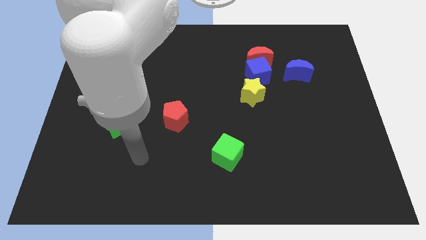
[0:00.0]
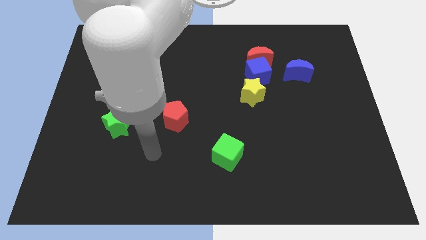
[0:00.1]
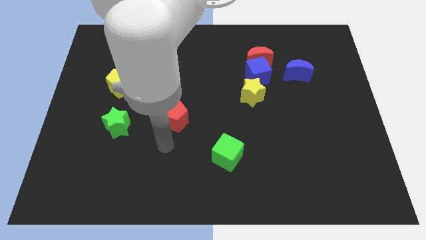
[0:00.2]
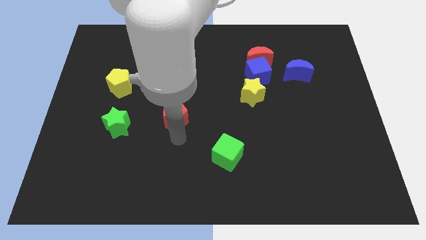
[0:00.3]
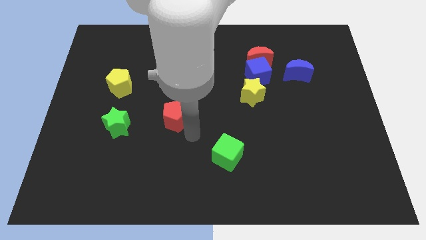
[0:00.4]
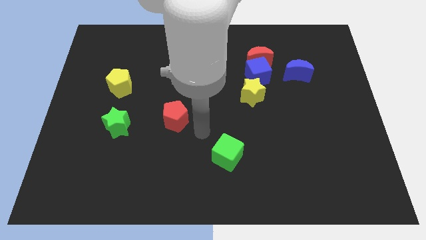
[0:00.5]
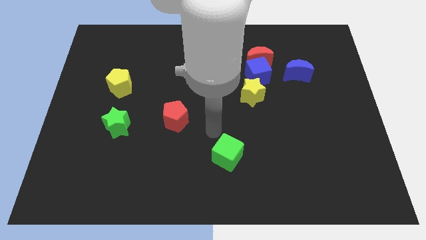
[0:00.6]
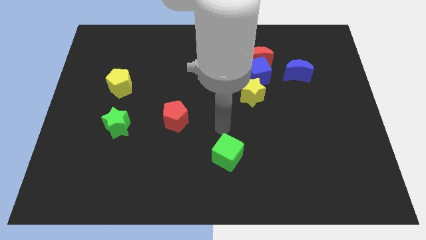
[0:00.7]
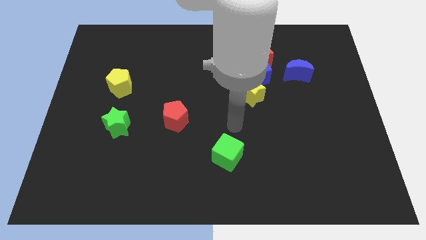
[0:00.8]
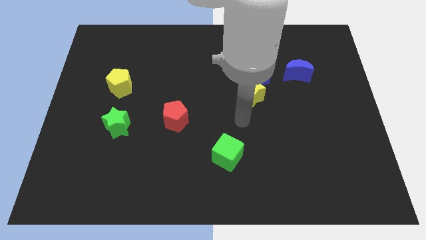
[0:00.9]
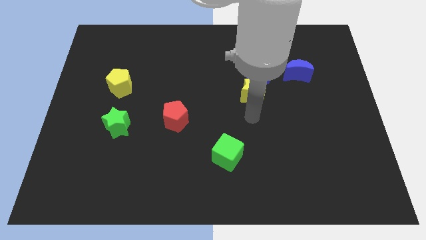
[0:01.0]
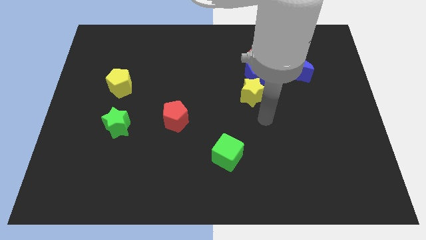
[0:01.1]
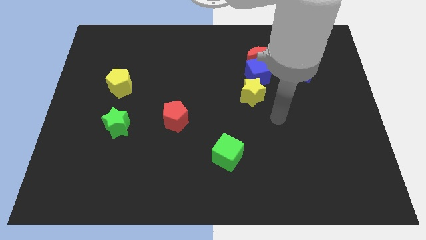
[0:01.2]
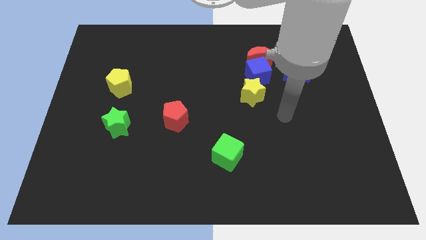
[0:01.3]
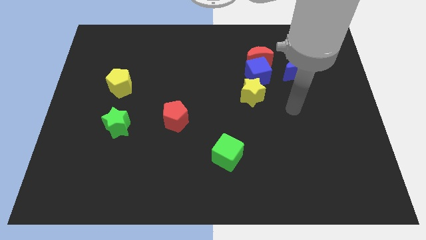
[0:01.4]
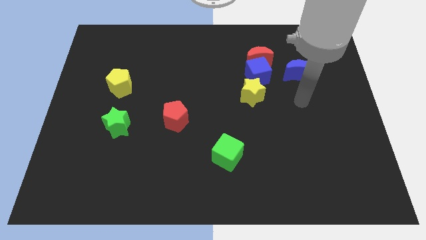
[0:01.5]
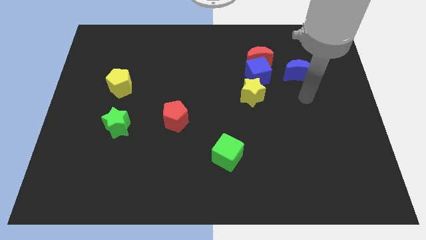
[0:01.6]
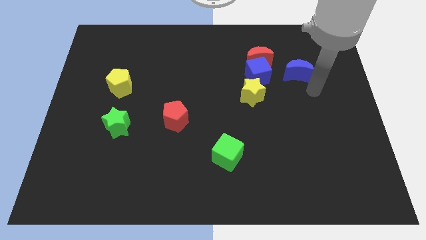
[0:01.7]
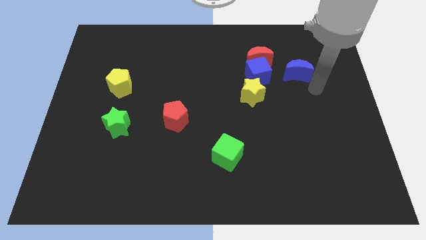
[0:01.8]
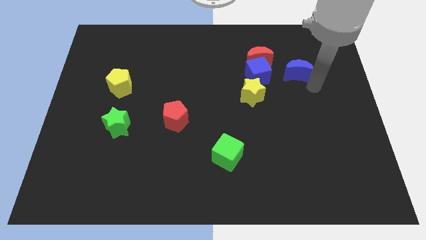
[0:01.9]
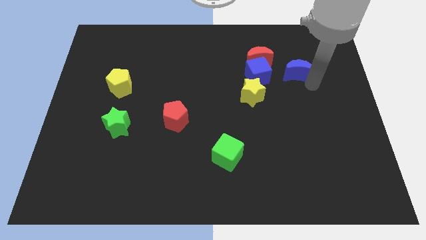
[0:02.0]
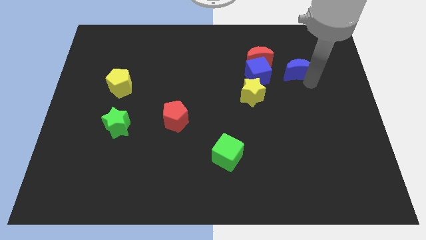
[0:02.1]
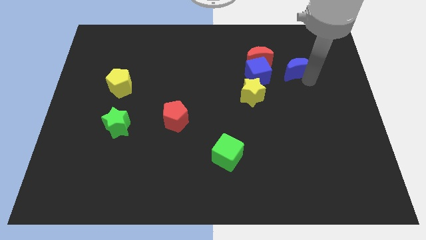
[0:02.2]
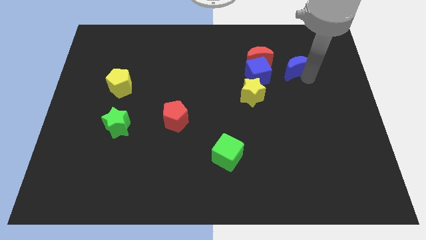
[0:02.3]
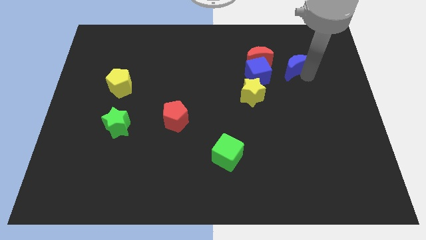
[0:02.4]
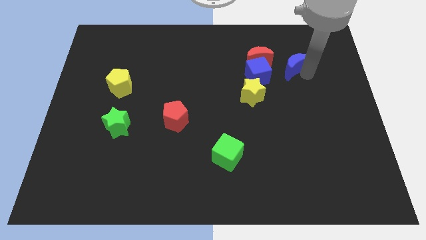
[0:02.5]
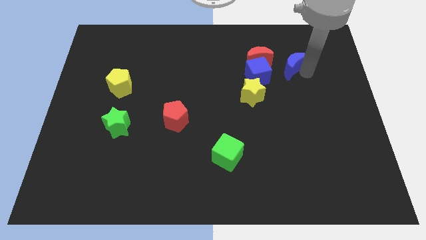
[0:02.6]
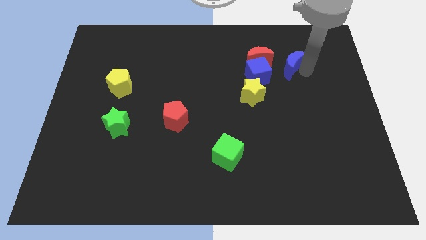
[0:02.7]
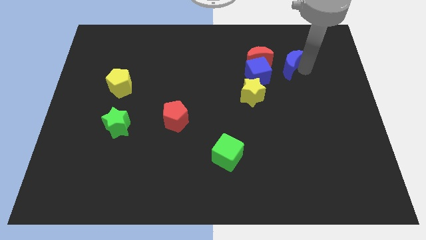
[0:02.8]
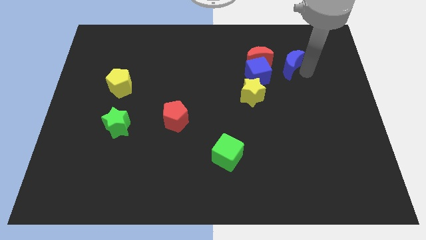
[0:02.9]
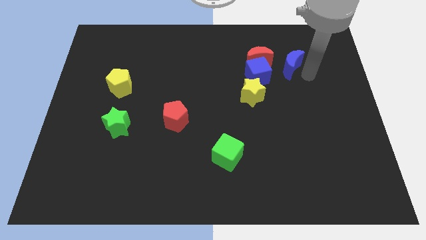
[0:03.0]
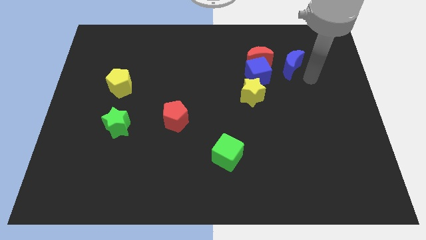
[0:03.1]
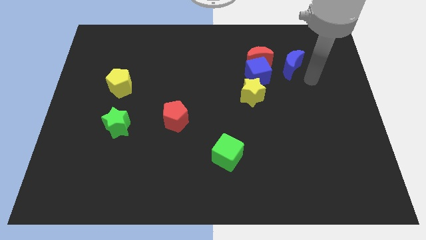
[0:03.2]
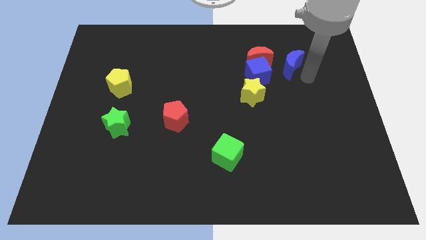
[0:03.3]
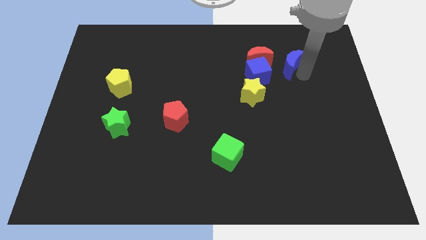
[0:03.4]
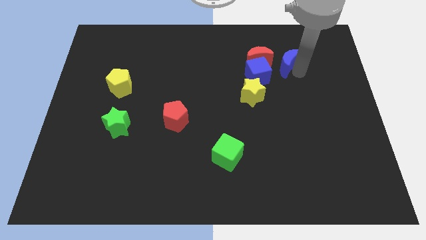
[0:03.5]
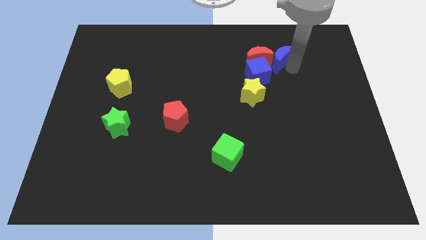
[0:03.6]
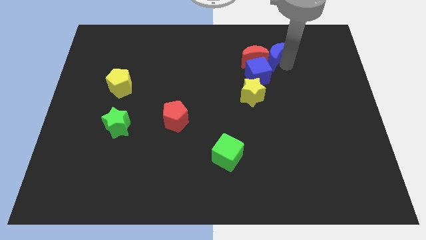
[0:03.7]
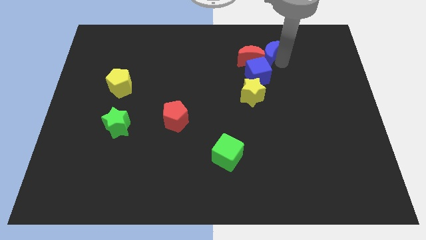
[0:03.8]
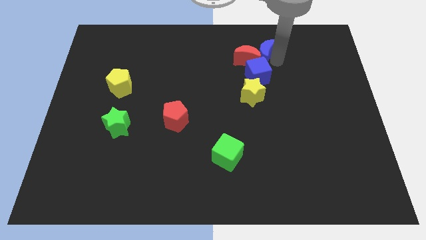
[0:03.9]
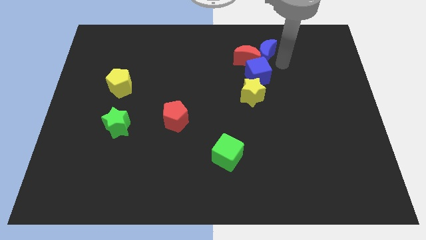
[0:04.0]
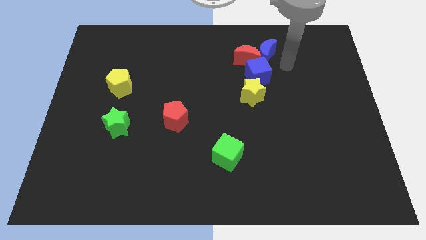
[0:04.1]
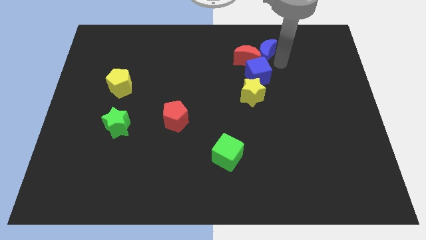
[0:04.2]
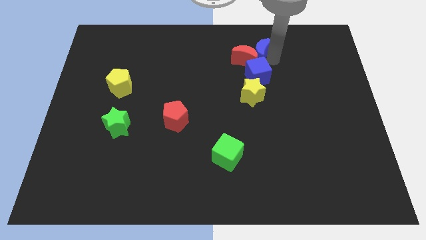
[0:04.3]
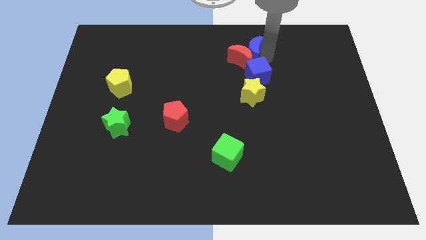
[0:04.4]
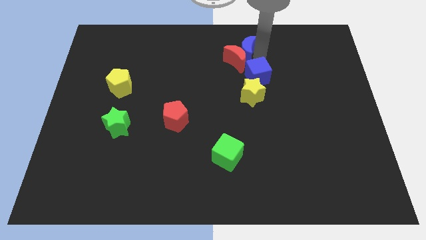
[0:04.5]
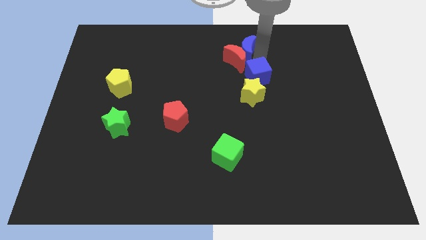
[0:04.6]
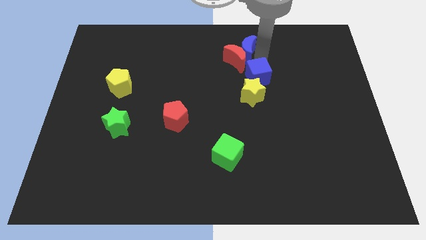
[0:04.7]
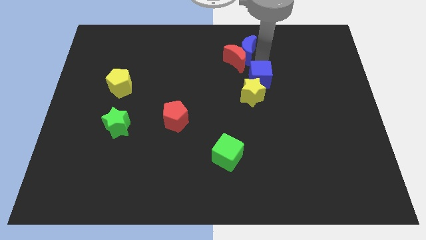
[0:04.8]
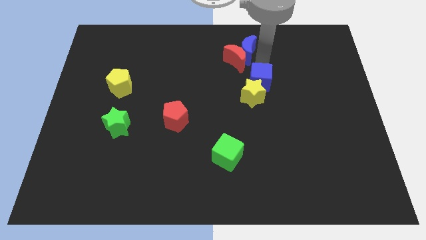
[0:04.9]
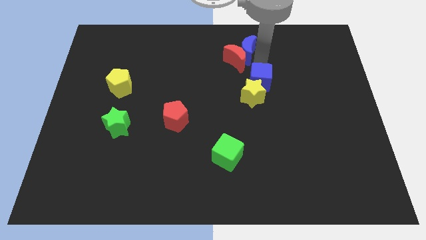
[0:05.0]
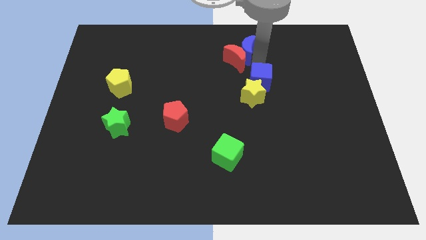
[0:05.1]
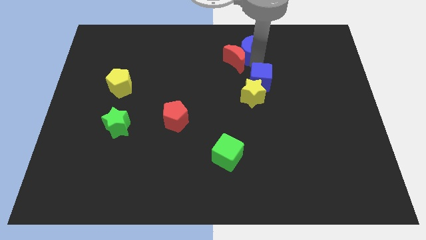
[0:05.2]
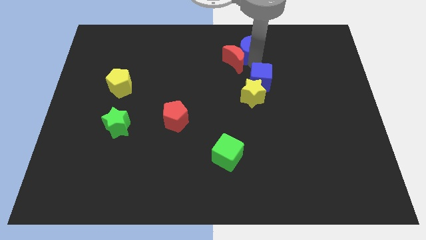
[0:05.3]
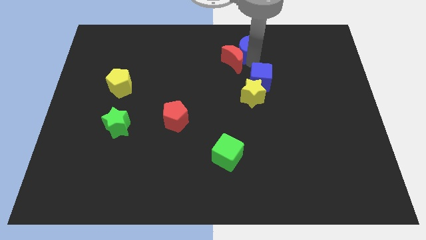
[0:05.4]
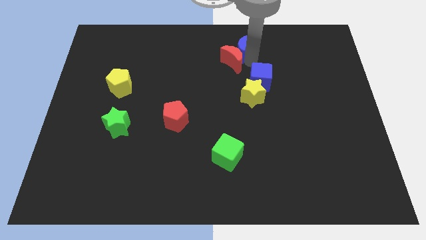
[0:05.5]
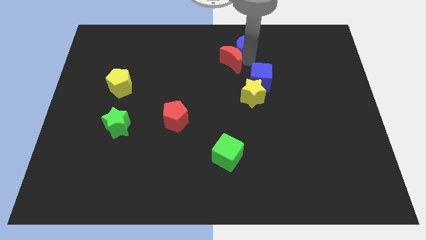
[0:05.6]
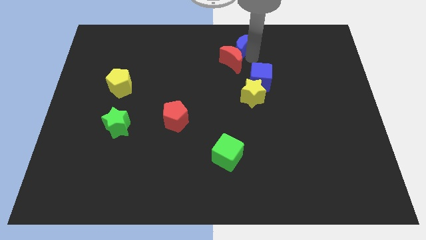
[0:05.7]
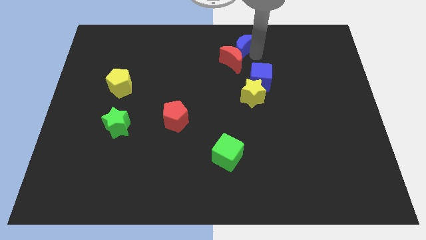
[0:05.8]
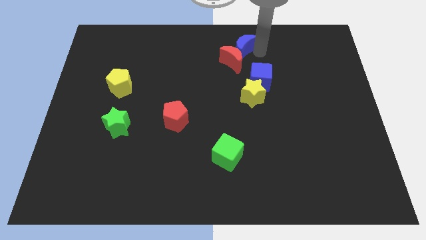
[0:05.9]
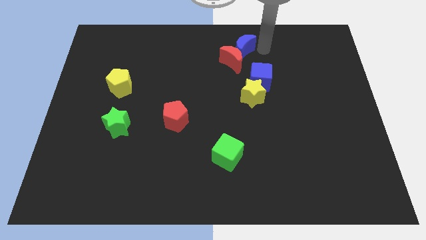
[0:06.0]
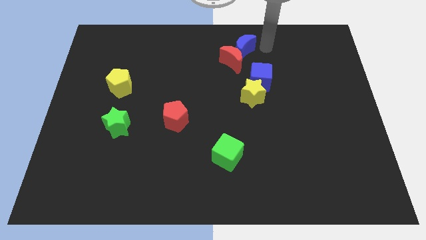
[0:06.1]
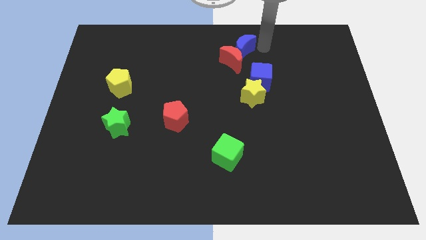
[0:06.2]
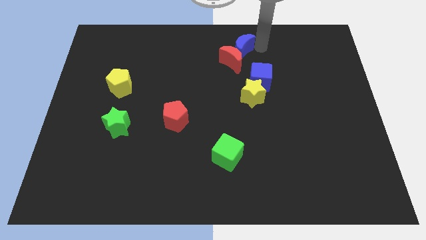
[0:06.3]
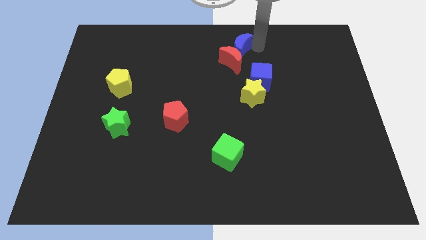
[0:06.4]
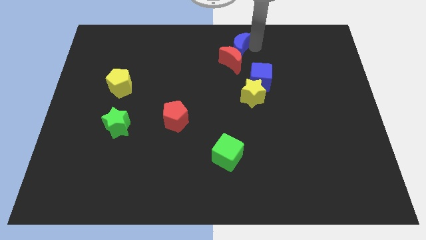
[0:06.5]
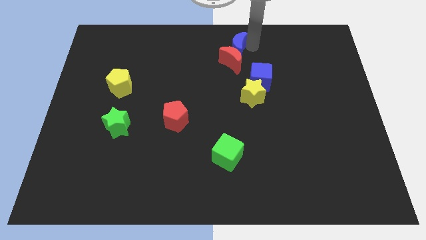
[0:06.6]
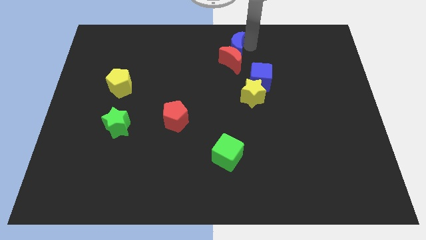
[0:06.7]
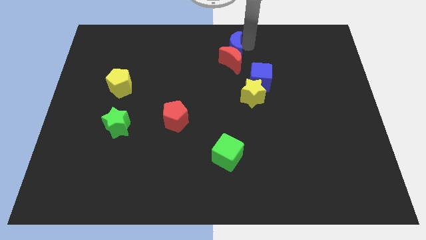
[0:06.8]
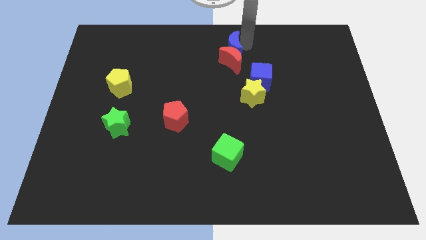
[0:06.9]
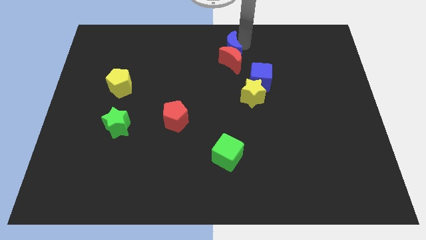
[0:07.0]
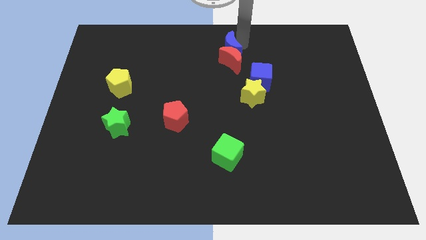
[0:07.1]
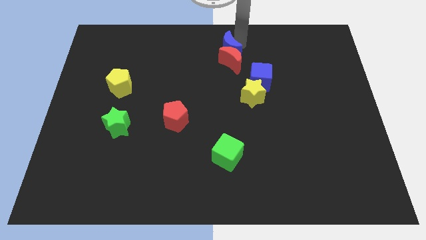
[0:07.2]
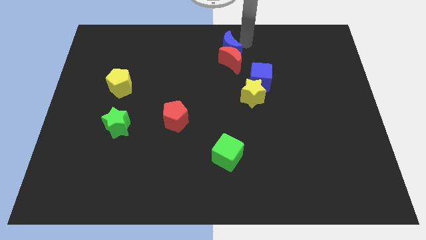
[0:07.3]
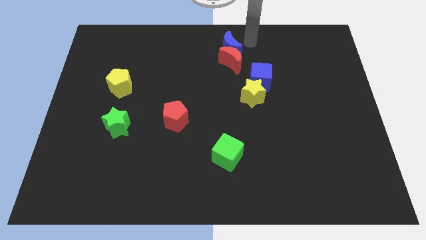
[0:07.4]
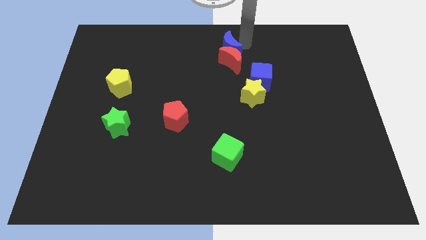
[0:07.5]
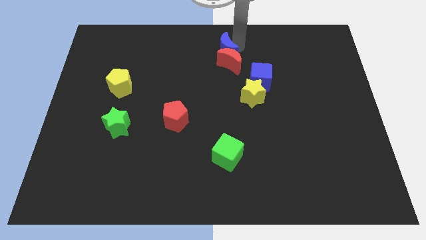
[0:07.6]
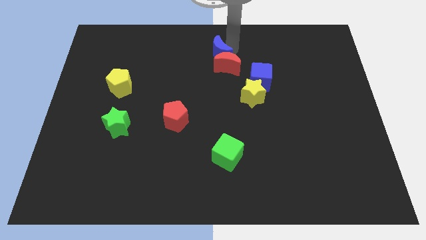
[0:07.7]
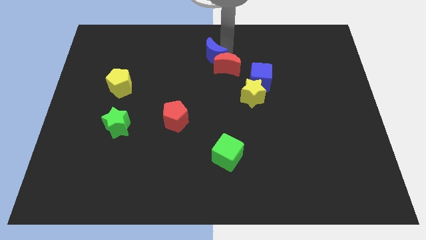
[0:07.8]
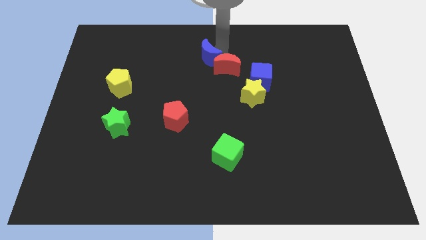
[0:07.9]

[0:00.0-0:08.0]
slide the blue moon to the left
